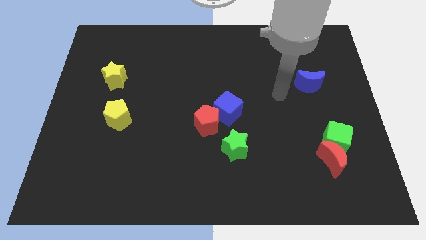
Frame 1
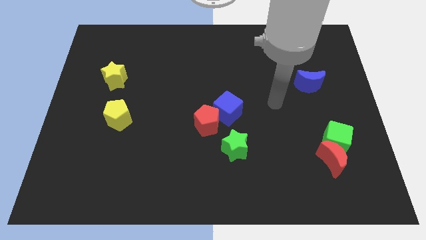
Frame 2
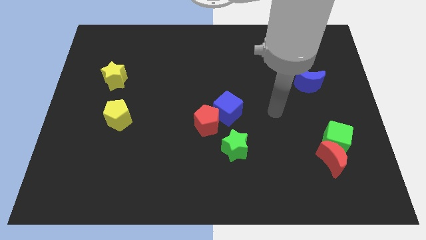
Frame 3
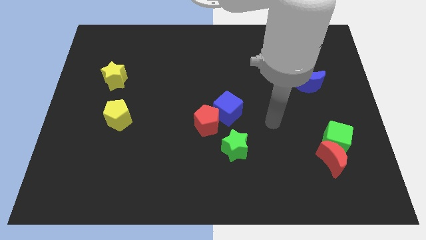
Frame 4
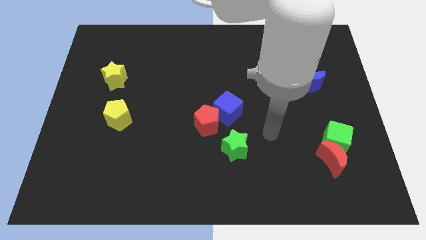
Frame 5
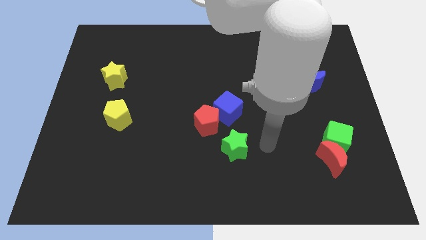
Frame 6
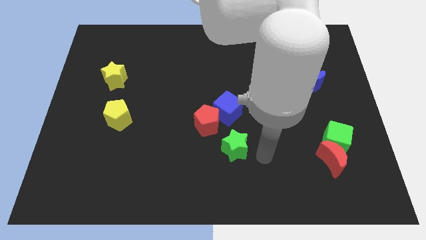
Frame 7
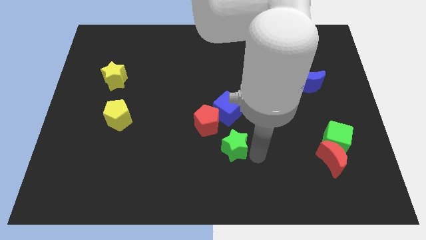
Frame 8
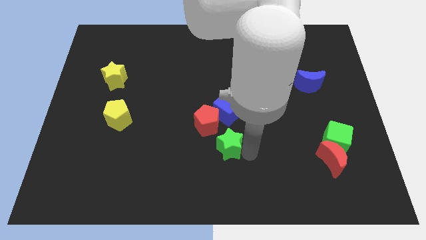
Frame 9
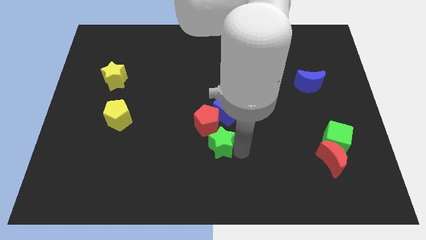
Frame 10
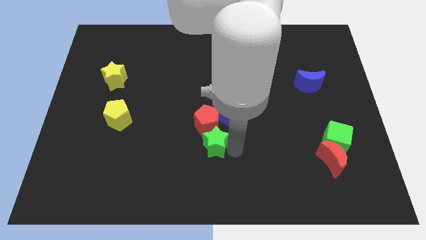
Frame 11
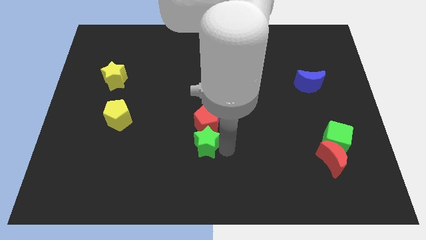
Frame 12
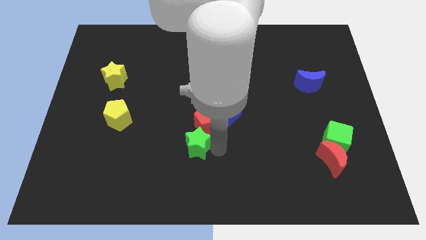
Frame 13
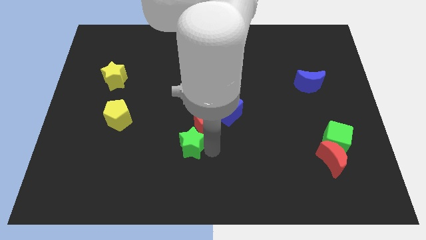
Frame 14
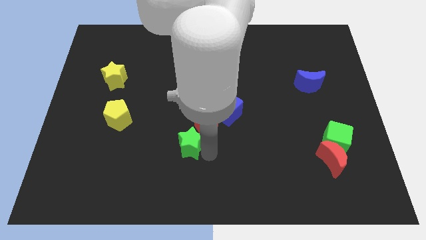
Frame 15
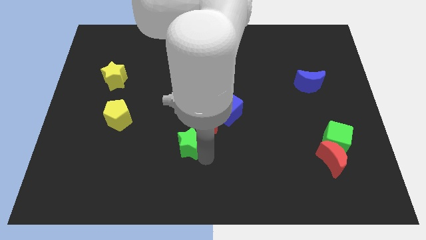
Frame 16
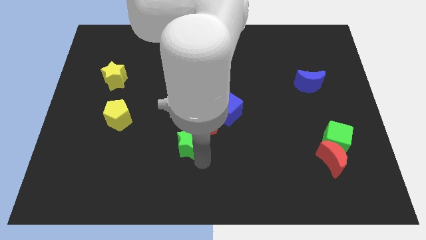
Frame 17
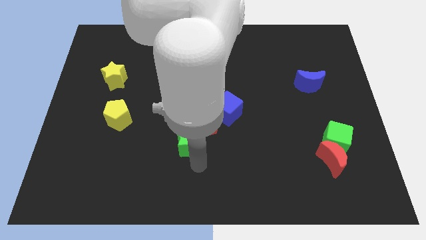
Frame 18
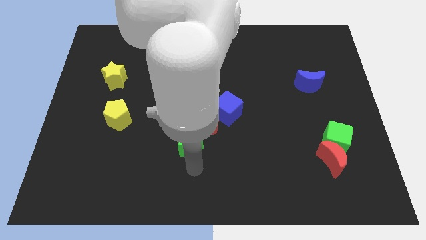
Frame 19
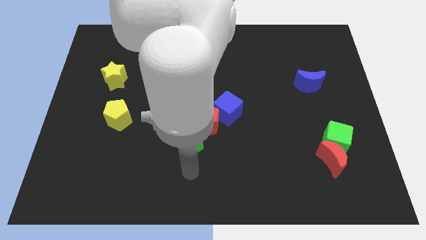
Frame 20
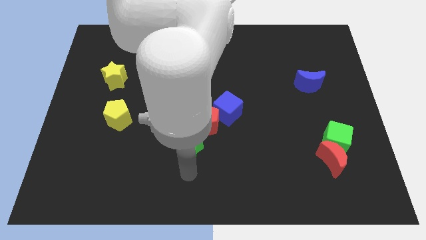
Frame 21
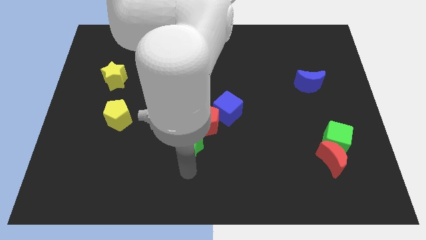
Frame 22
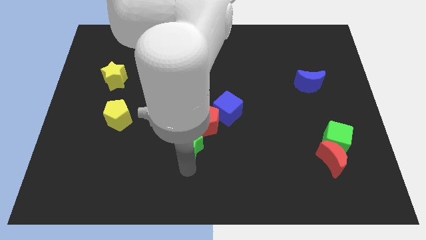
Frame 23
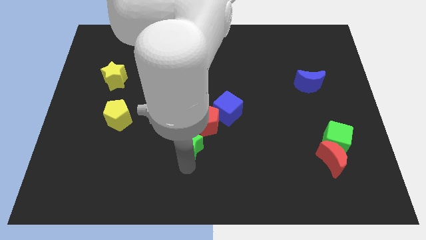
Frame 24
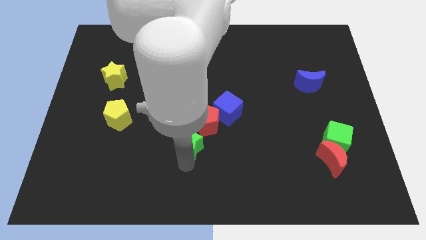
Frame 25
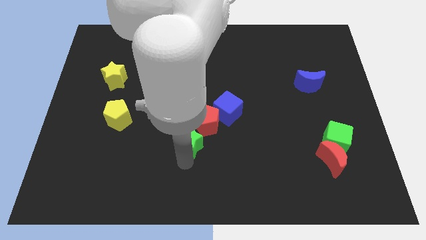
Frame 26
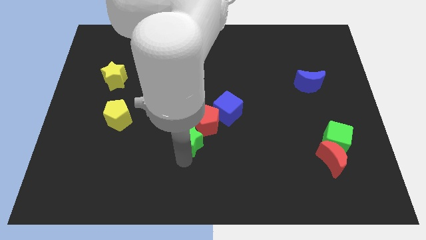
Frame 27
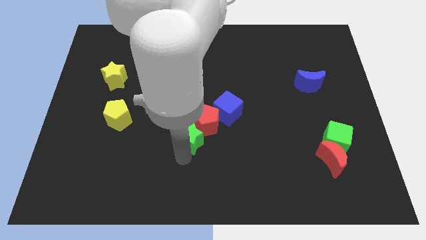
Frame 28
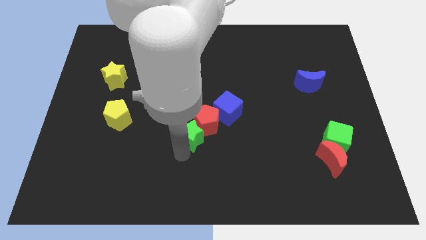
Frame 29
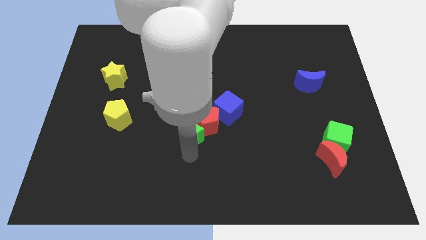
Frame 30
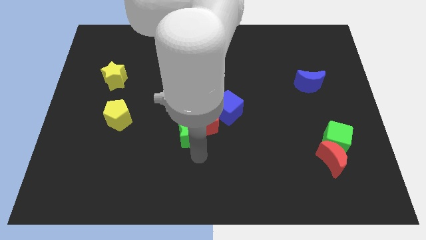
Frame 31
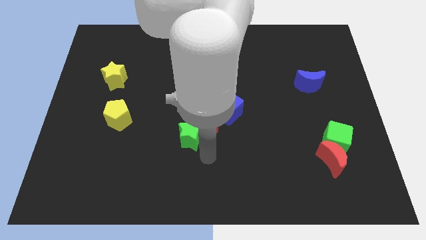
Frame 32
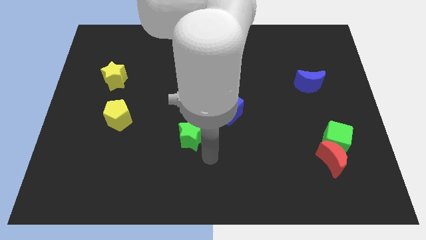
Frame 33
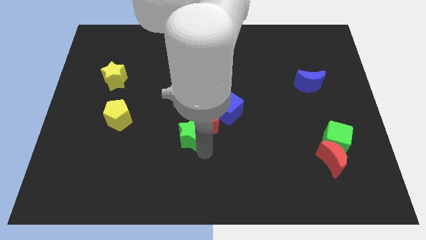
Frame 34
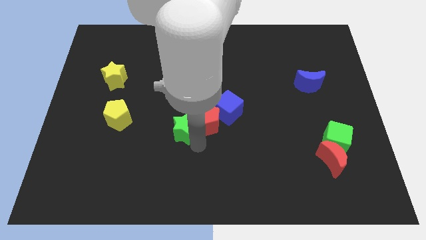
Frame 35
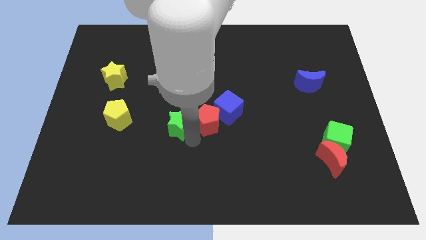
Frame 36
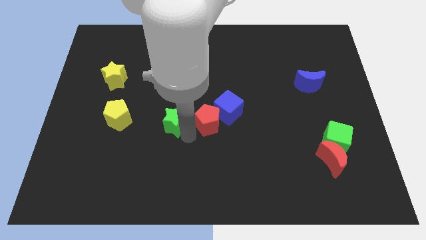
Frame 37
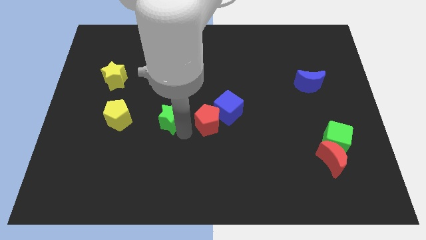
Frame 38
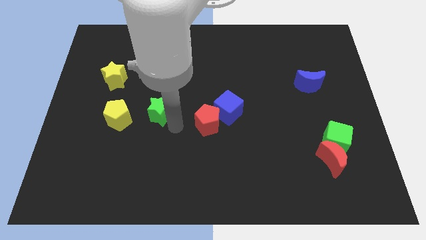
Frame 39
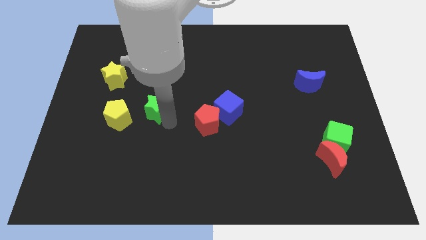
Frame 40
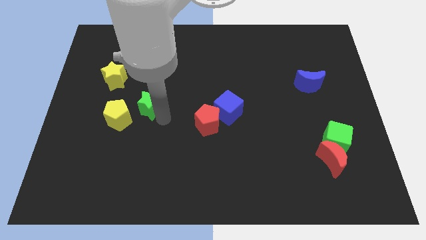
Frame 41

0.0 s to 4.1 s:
move the green star upwards and to the left

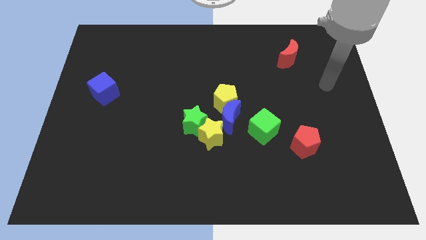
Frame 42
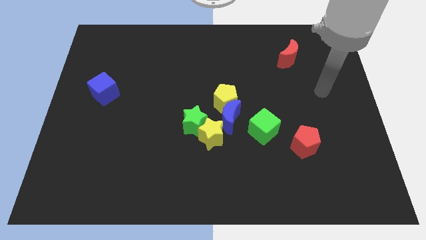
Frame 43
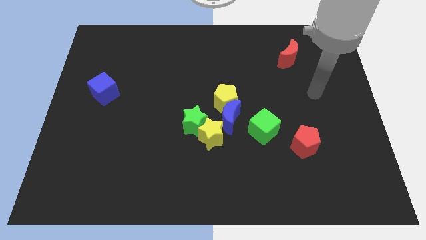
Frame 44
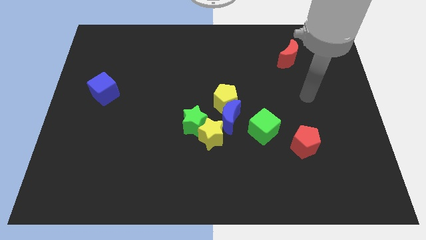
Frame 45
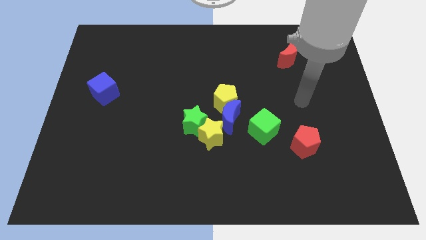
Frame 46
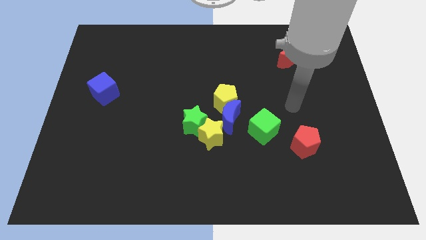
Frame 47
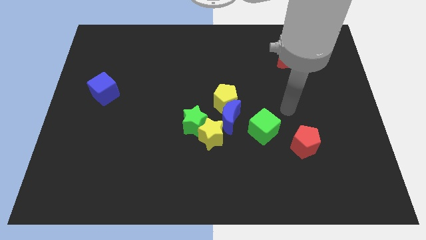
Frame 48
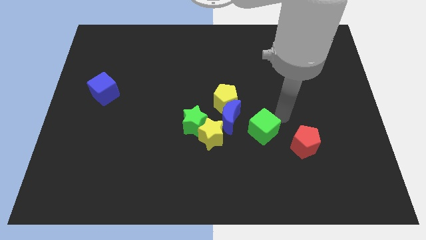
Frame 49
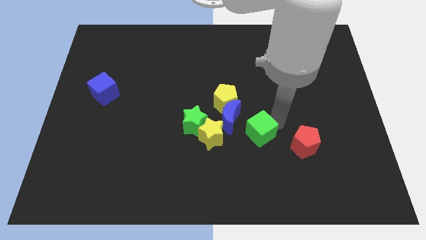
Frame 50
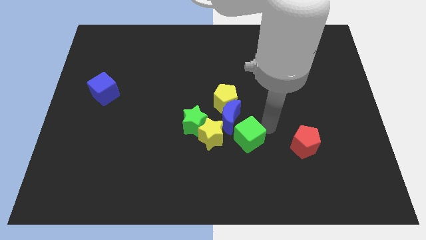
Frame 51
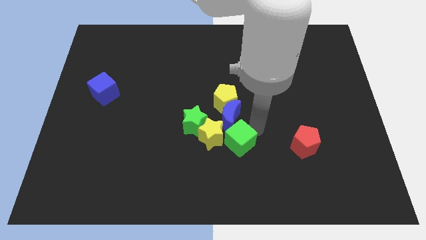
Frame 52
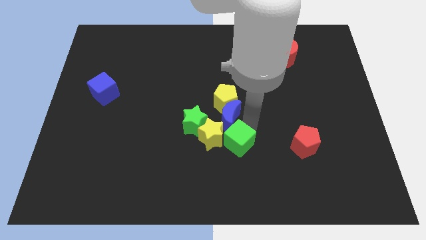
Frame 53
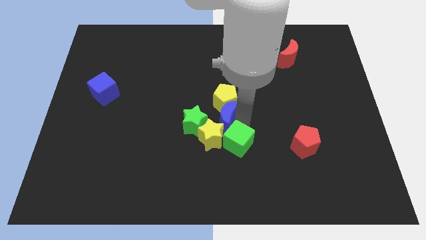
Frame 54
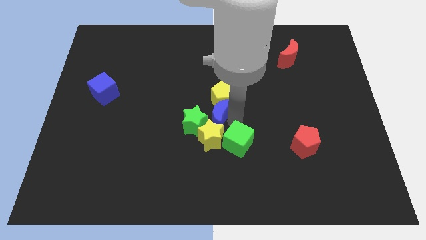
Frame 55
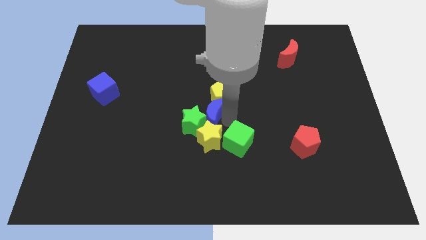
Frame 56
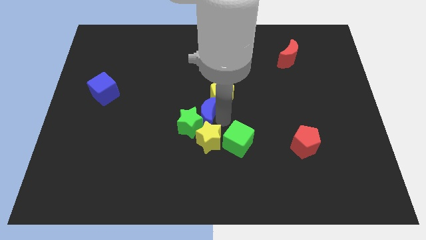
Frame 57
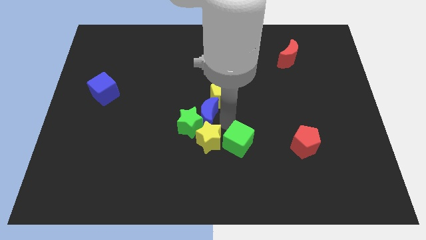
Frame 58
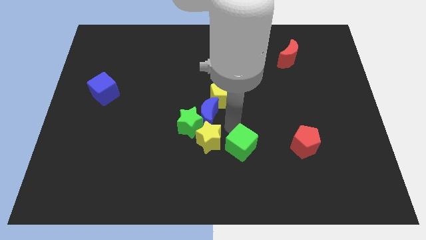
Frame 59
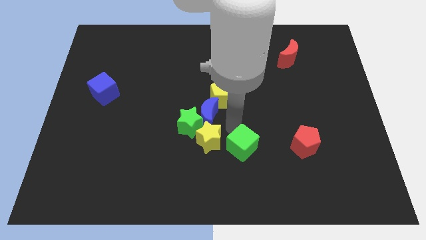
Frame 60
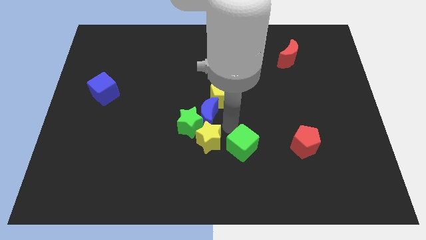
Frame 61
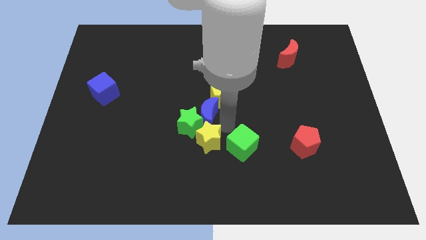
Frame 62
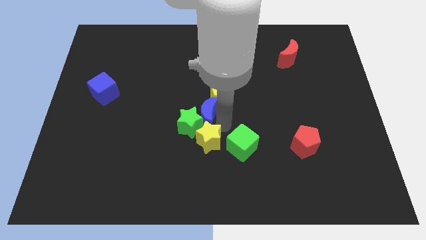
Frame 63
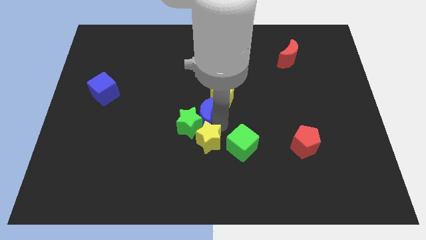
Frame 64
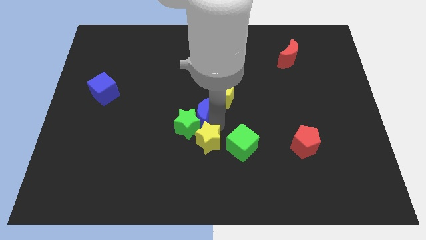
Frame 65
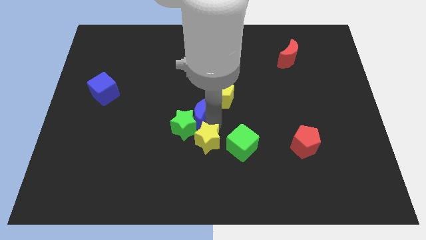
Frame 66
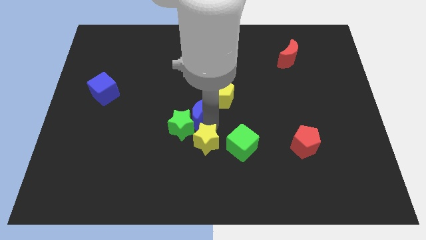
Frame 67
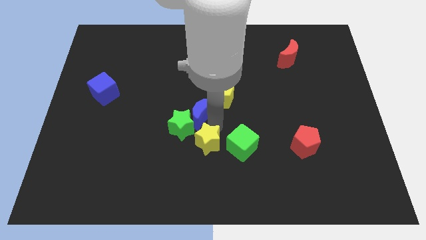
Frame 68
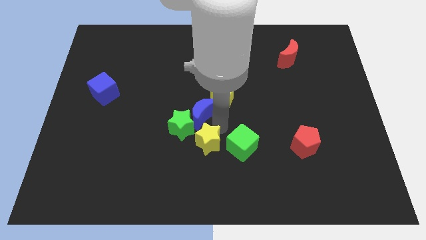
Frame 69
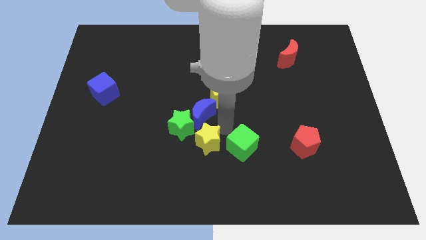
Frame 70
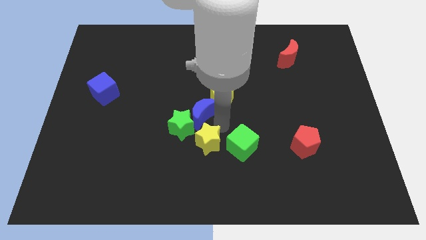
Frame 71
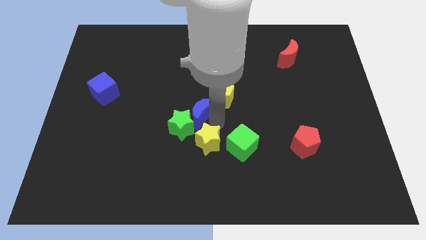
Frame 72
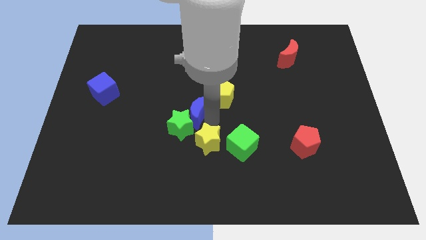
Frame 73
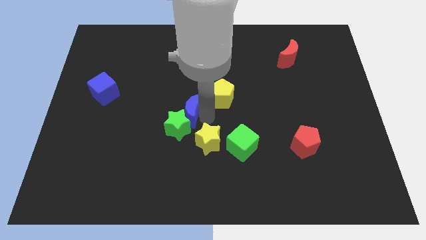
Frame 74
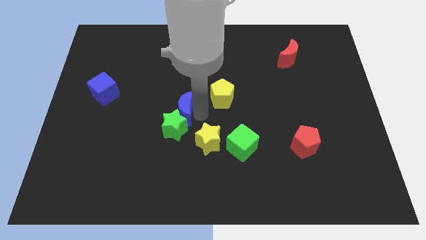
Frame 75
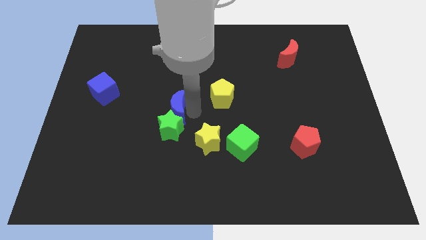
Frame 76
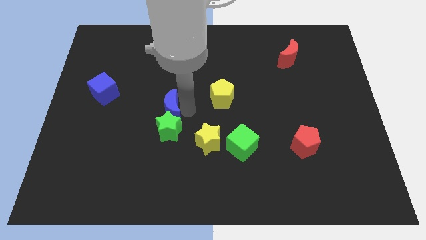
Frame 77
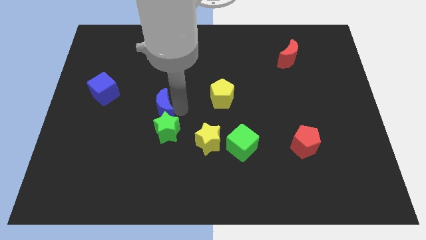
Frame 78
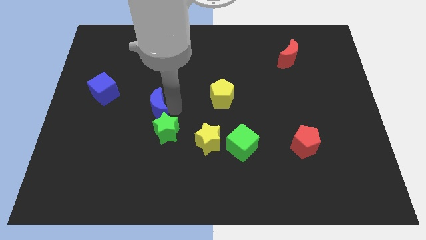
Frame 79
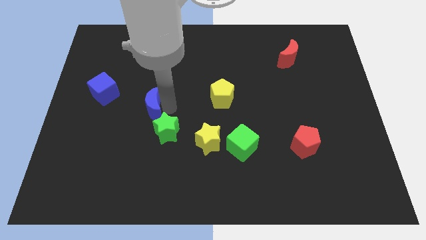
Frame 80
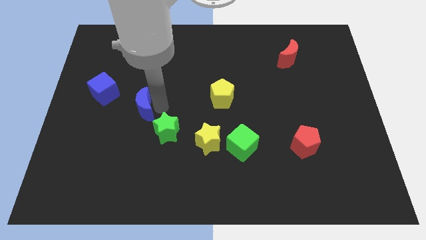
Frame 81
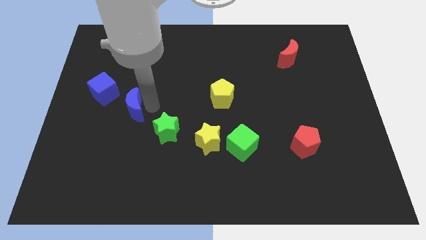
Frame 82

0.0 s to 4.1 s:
push the blue moon left

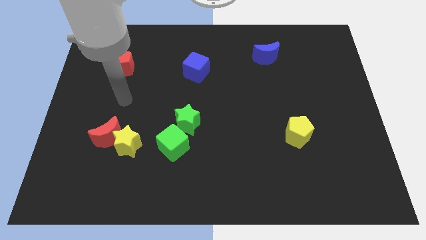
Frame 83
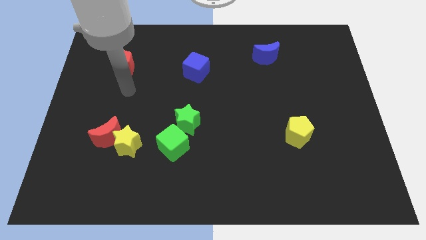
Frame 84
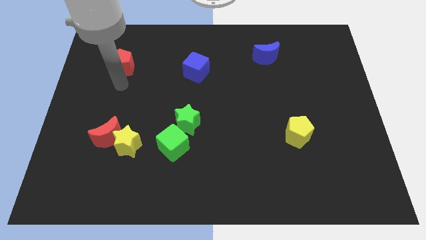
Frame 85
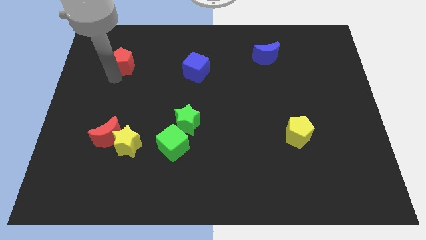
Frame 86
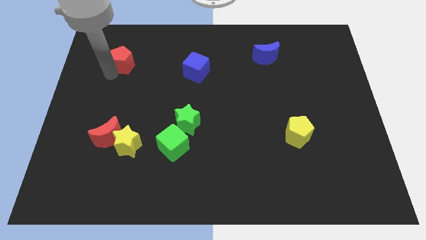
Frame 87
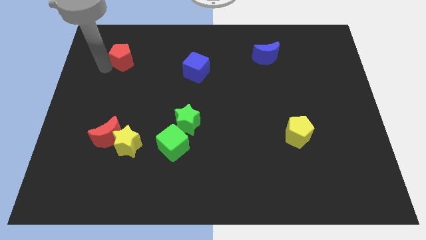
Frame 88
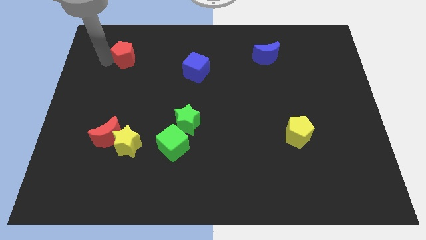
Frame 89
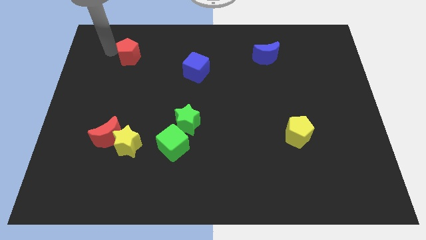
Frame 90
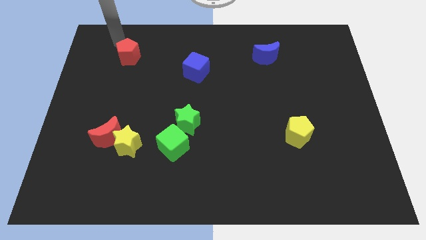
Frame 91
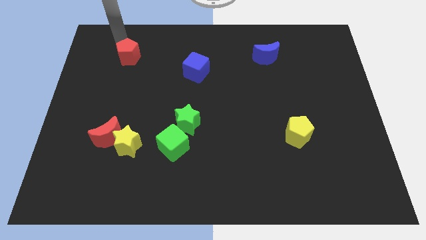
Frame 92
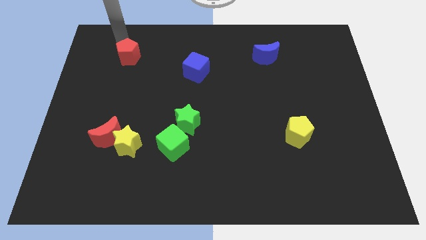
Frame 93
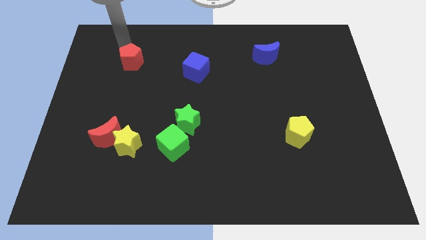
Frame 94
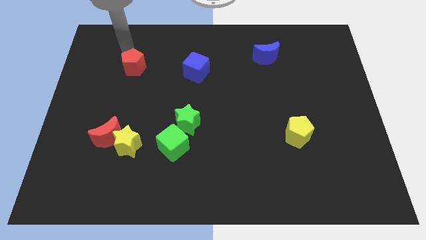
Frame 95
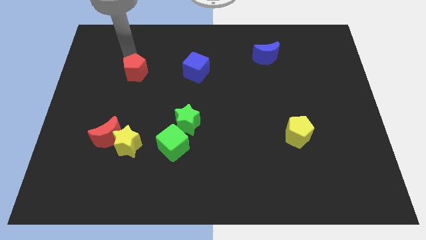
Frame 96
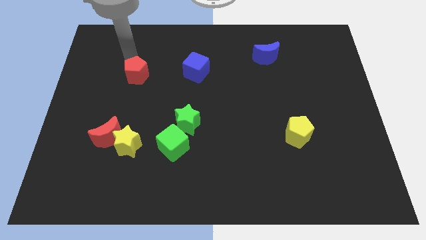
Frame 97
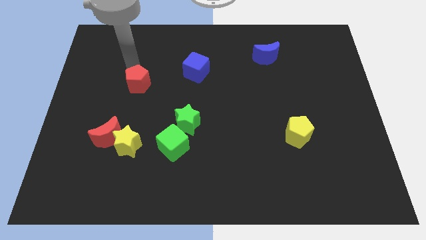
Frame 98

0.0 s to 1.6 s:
move the red pentagon diagonally down and right slightly
